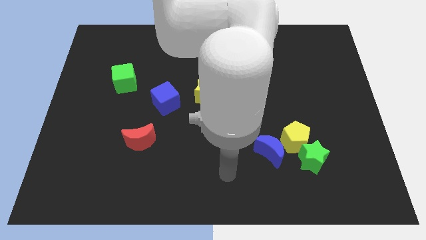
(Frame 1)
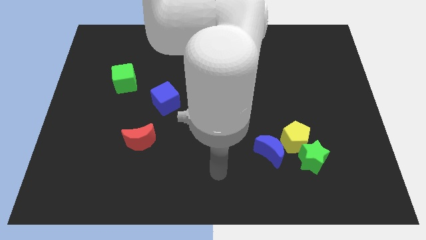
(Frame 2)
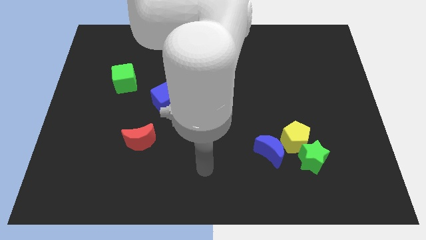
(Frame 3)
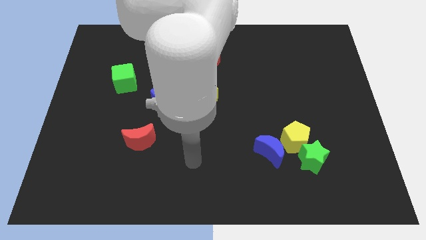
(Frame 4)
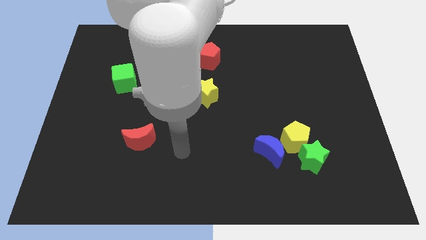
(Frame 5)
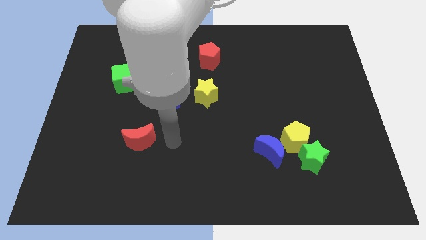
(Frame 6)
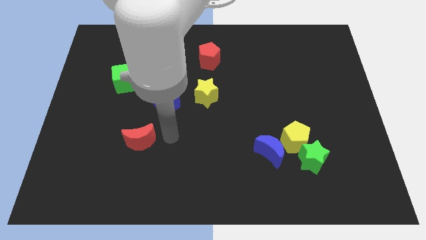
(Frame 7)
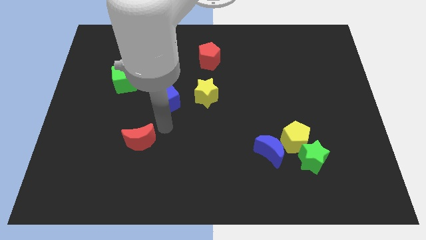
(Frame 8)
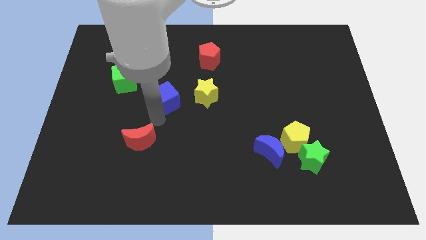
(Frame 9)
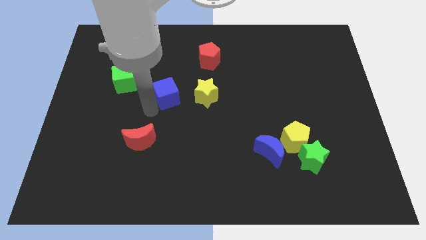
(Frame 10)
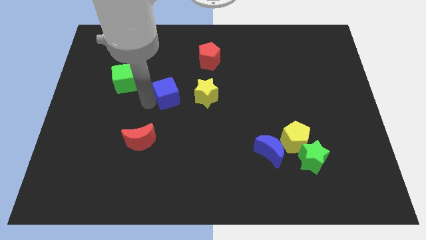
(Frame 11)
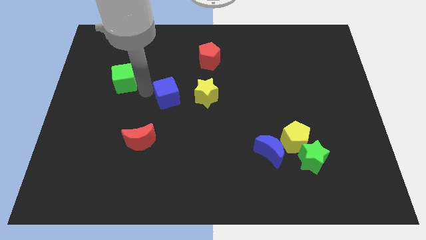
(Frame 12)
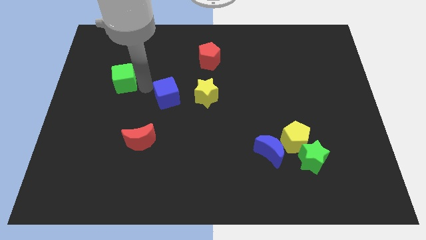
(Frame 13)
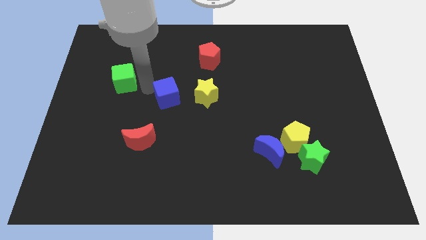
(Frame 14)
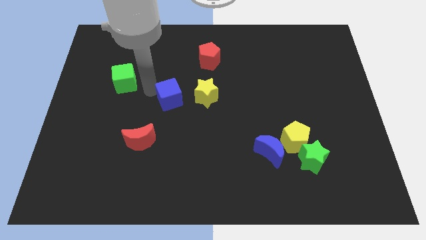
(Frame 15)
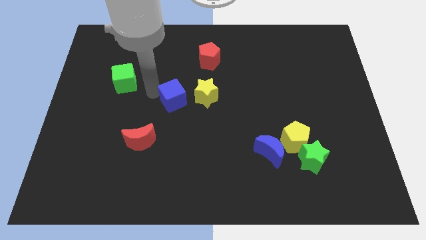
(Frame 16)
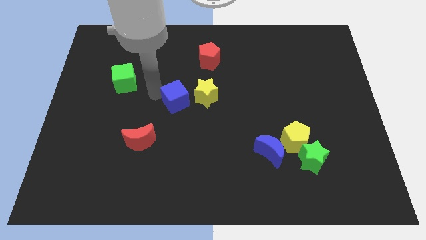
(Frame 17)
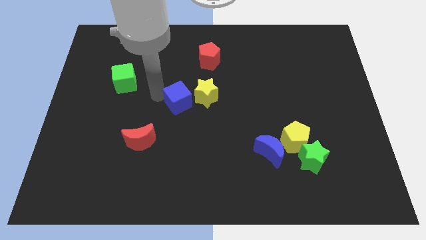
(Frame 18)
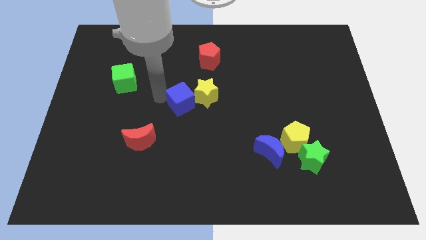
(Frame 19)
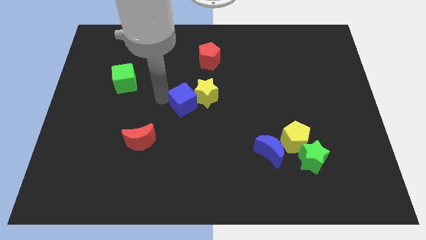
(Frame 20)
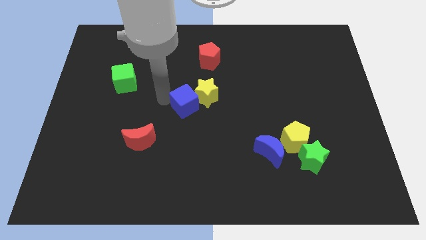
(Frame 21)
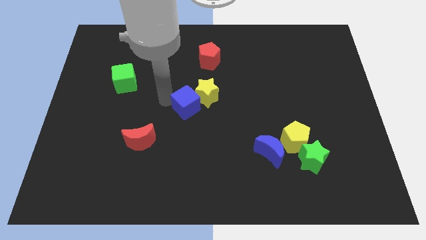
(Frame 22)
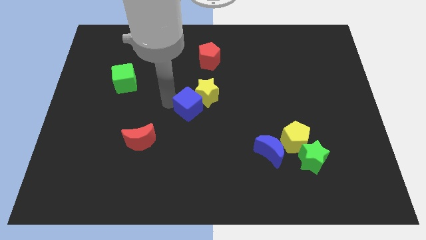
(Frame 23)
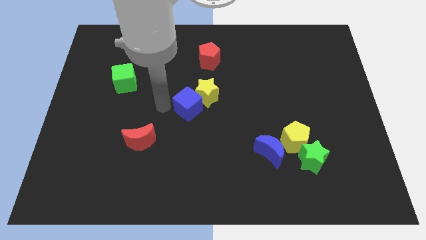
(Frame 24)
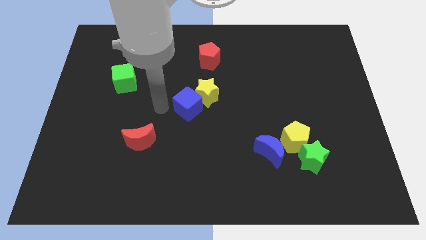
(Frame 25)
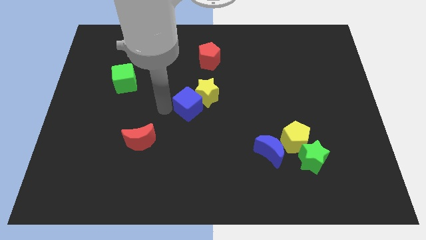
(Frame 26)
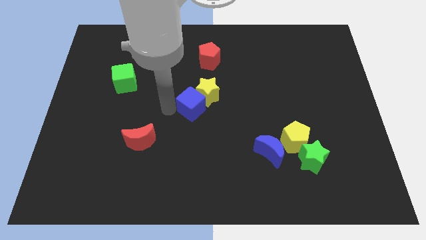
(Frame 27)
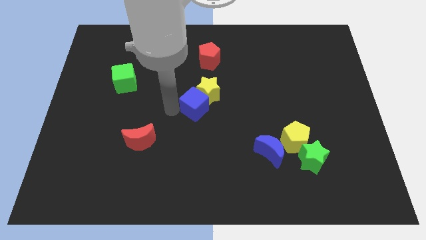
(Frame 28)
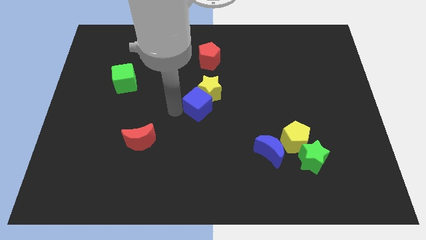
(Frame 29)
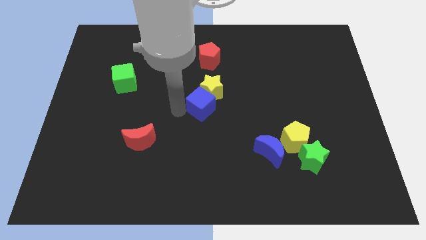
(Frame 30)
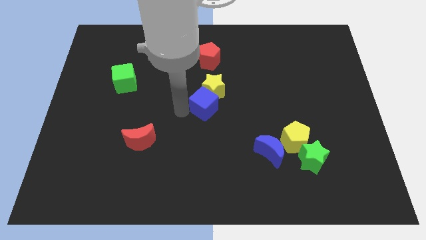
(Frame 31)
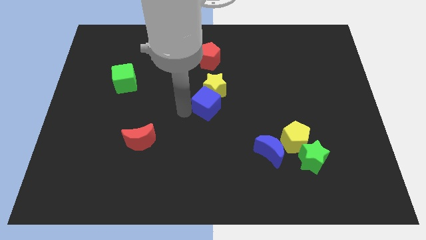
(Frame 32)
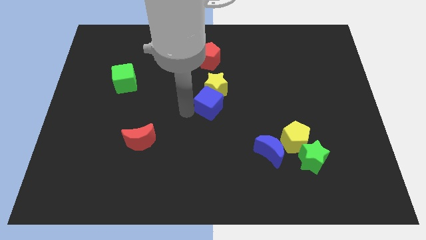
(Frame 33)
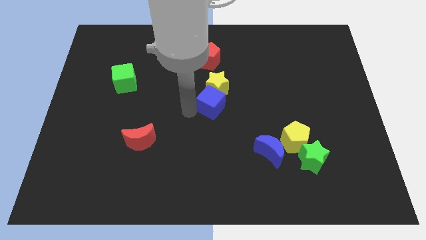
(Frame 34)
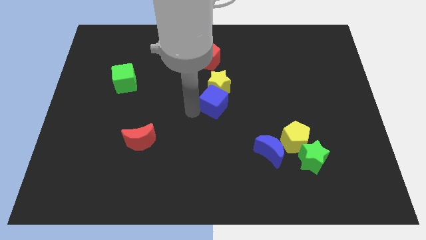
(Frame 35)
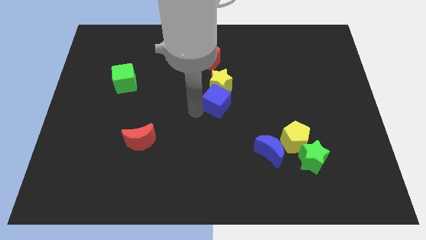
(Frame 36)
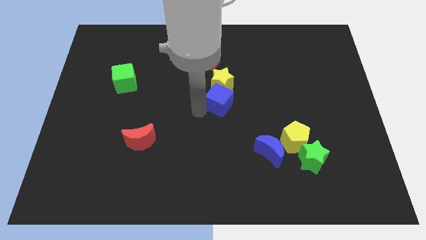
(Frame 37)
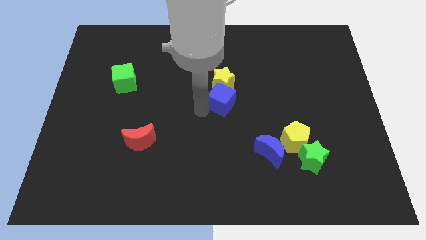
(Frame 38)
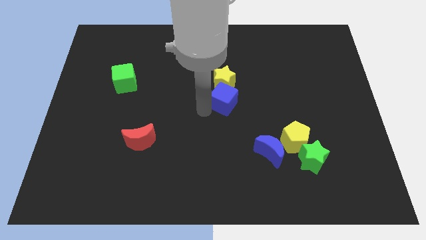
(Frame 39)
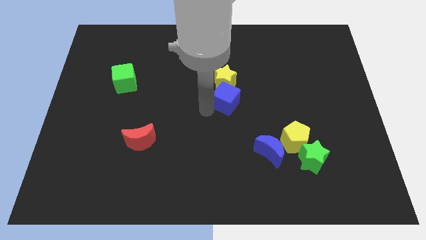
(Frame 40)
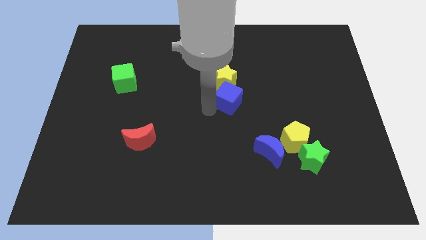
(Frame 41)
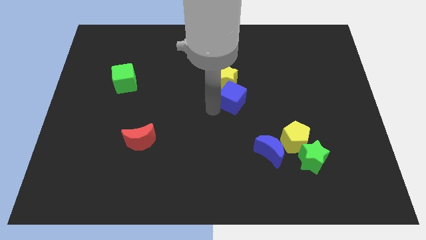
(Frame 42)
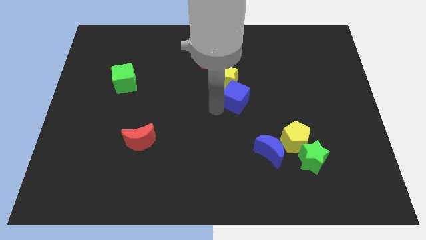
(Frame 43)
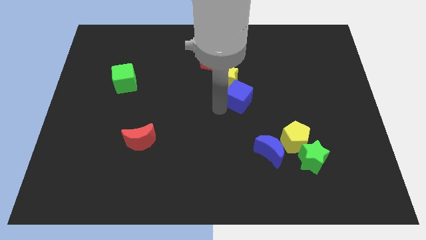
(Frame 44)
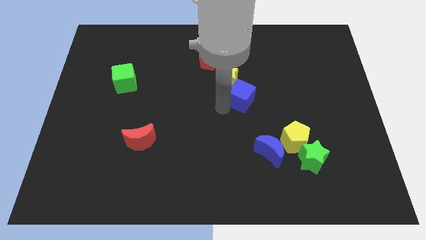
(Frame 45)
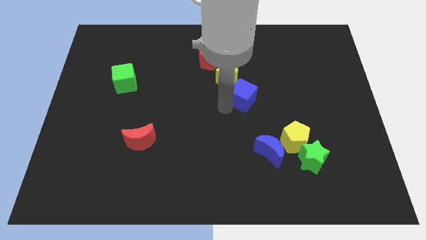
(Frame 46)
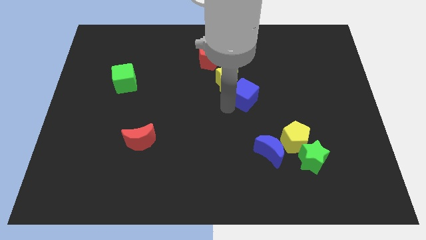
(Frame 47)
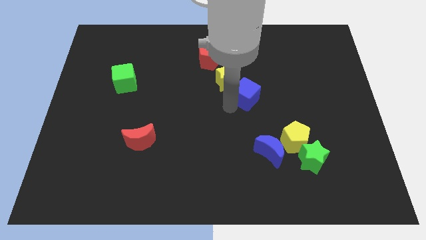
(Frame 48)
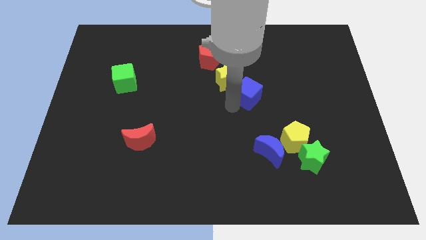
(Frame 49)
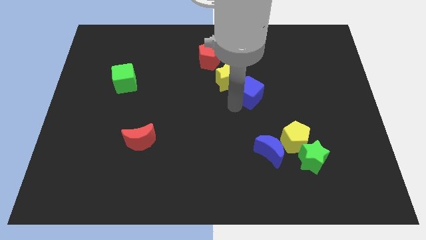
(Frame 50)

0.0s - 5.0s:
move the blue cube to the right

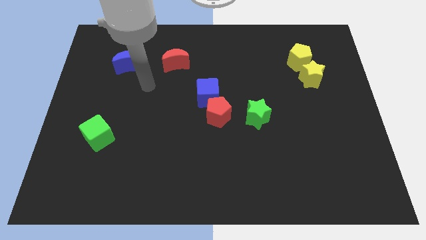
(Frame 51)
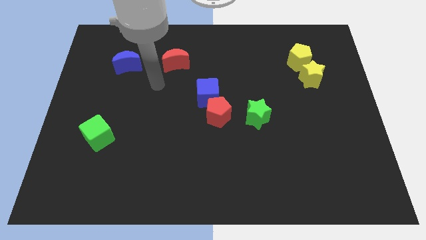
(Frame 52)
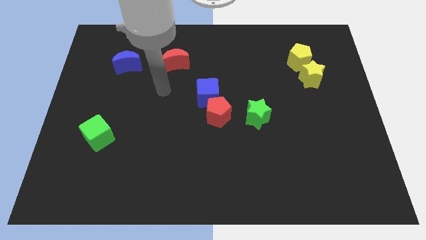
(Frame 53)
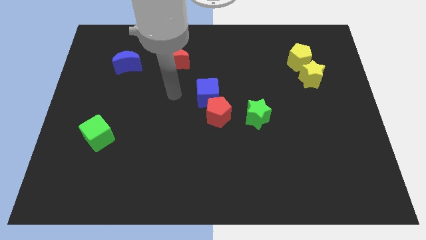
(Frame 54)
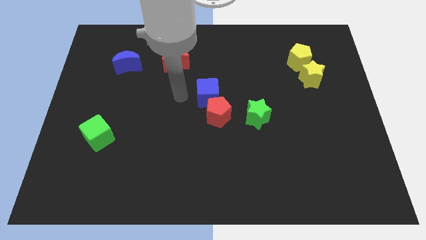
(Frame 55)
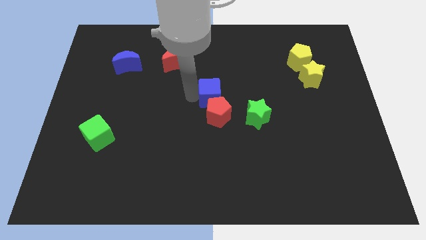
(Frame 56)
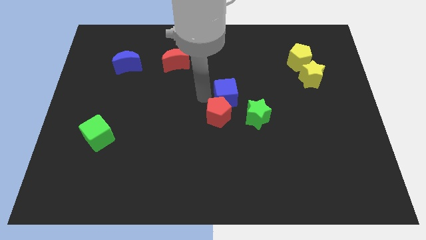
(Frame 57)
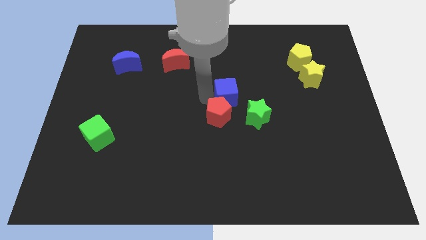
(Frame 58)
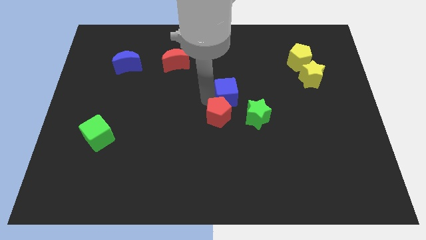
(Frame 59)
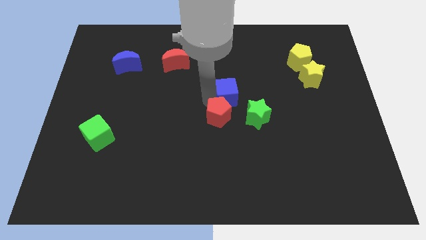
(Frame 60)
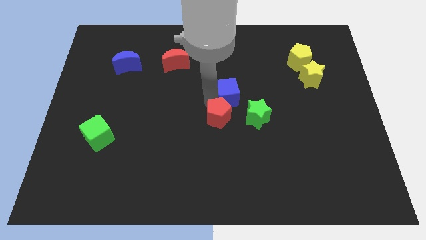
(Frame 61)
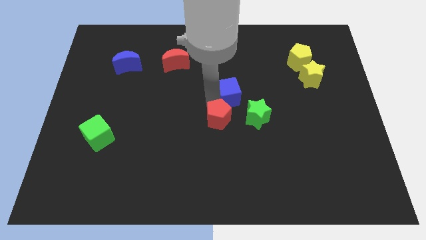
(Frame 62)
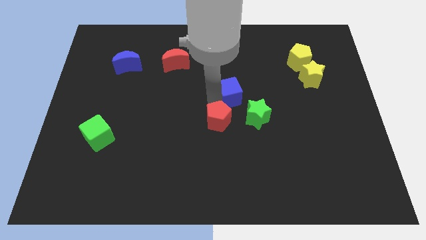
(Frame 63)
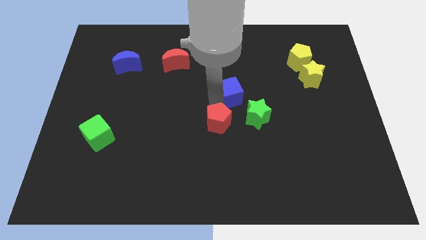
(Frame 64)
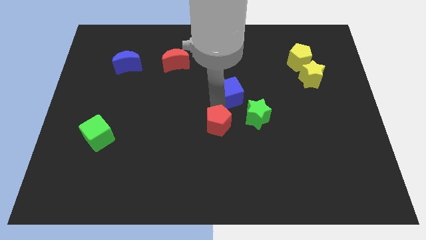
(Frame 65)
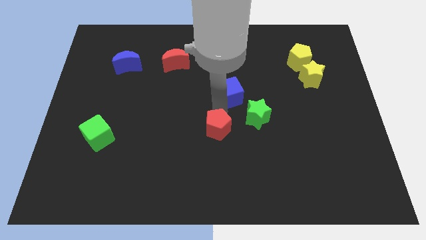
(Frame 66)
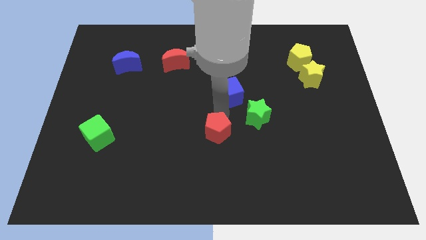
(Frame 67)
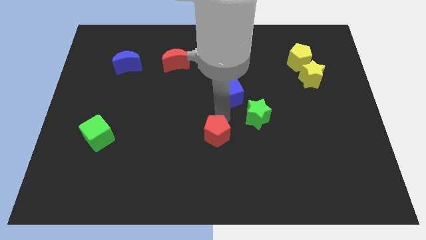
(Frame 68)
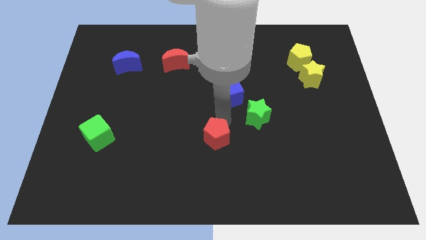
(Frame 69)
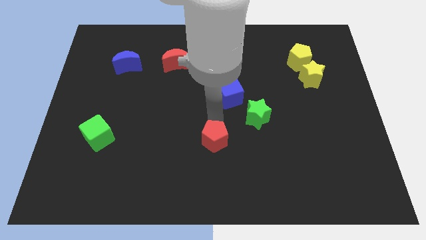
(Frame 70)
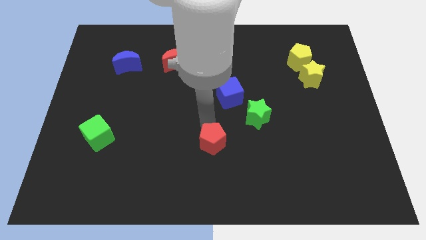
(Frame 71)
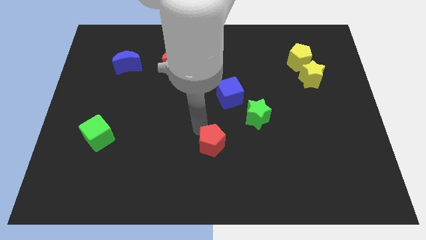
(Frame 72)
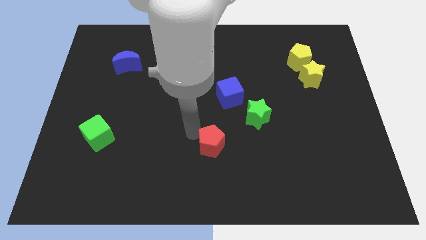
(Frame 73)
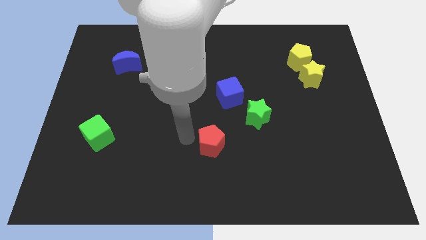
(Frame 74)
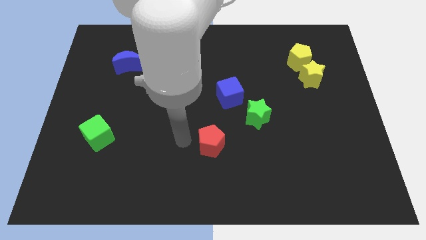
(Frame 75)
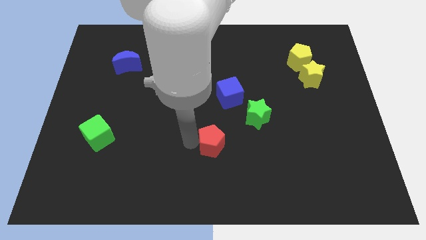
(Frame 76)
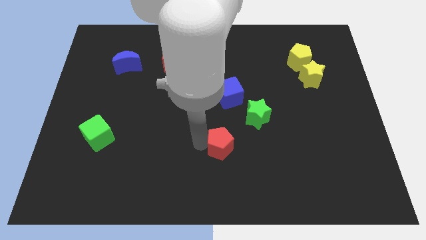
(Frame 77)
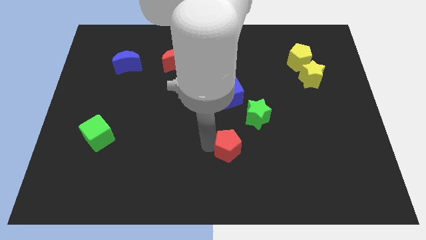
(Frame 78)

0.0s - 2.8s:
push the red pentagon a little bit diagonally down and to the right

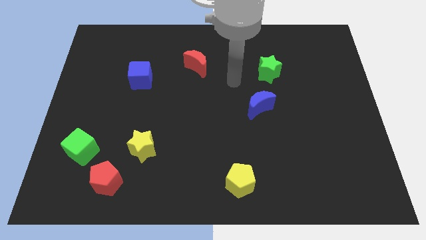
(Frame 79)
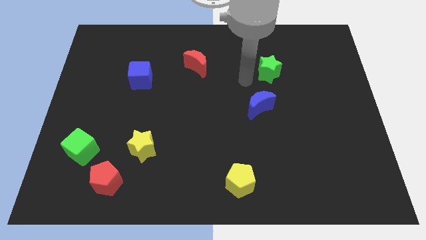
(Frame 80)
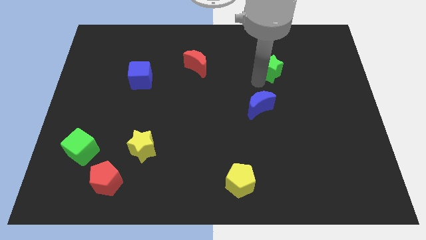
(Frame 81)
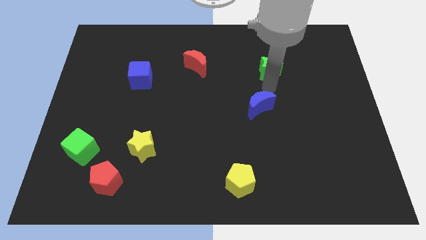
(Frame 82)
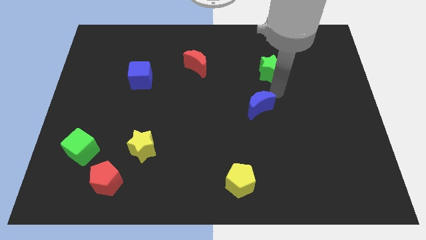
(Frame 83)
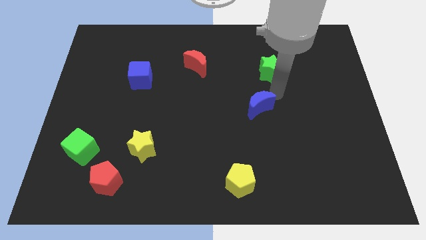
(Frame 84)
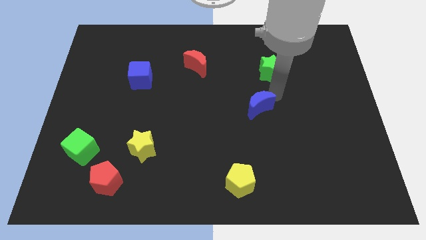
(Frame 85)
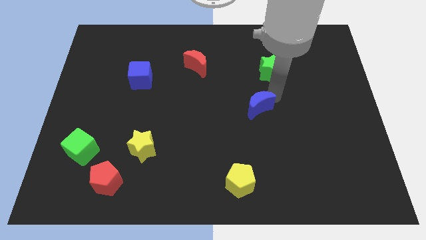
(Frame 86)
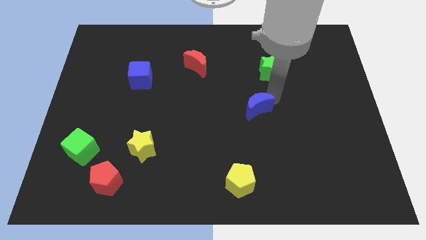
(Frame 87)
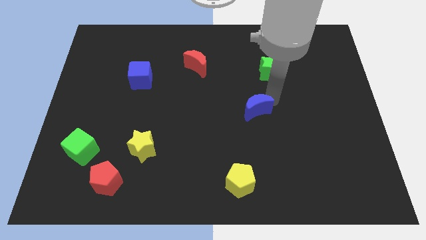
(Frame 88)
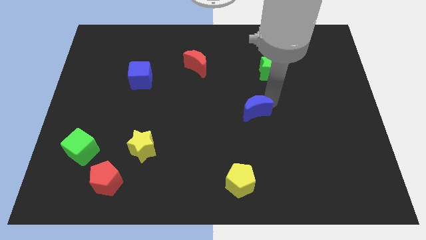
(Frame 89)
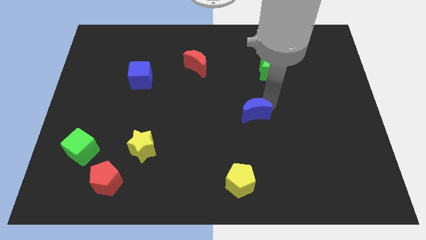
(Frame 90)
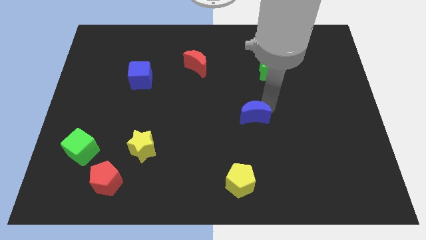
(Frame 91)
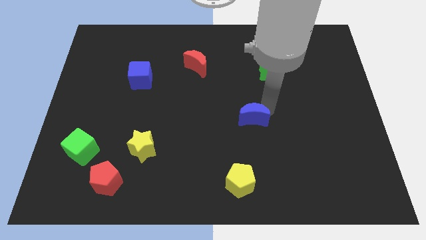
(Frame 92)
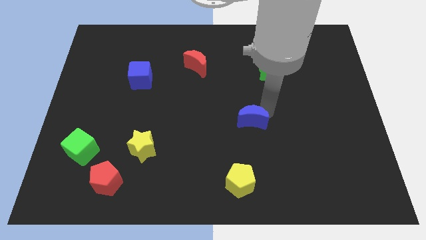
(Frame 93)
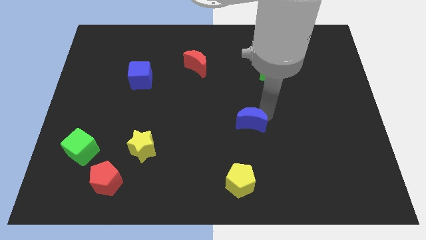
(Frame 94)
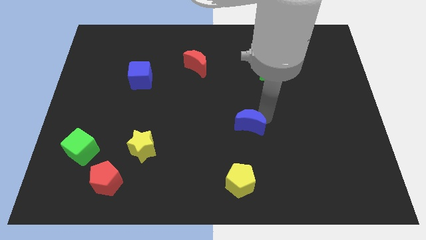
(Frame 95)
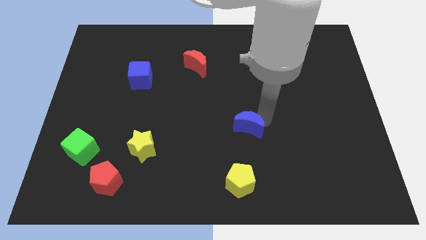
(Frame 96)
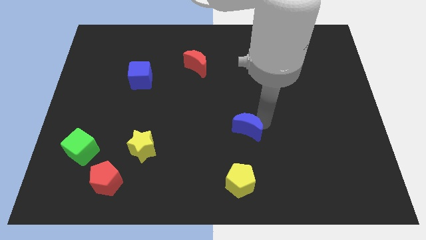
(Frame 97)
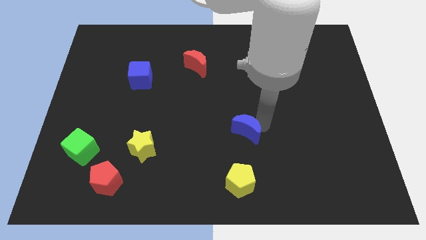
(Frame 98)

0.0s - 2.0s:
move the blue moon downwards and left a little
